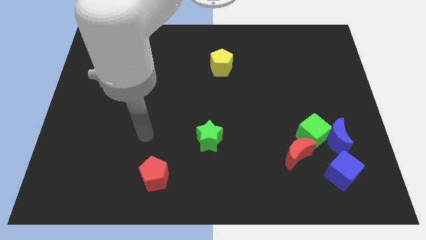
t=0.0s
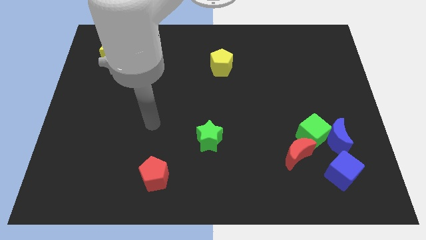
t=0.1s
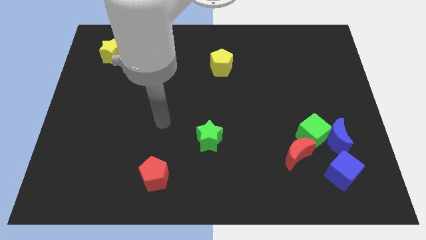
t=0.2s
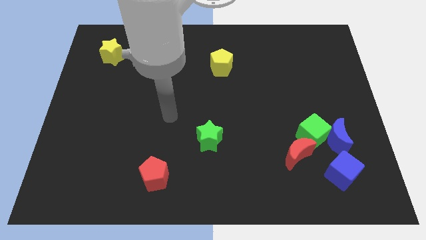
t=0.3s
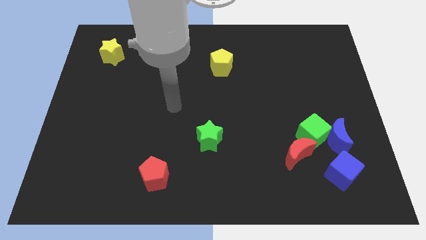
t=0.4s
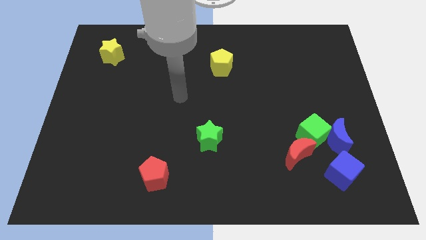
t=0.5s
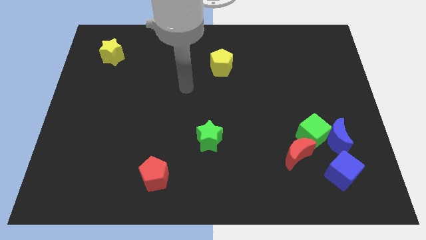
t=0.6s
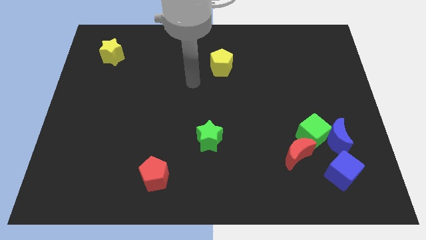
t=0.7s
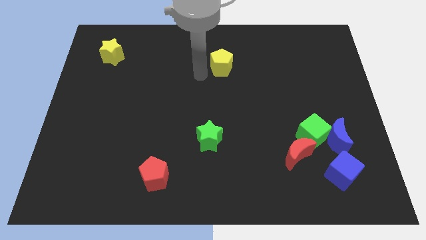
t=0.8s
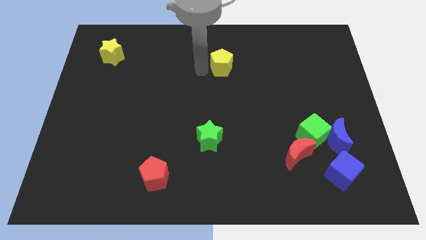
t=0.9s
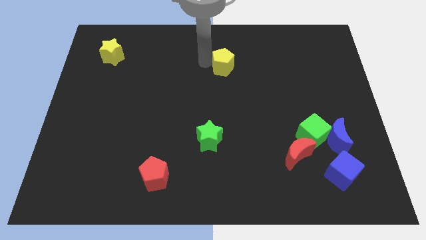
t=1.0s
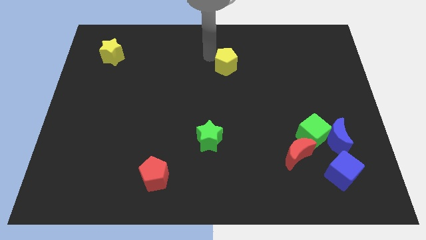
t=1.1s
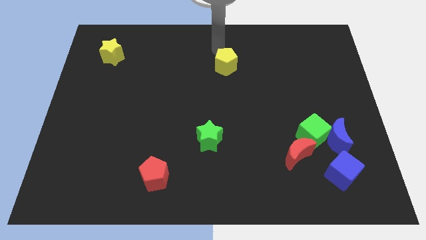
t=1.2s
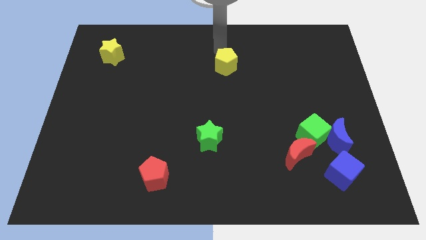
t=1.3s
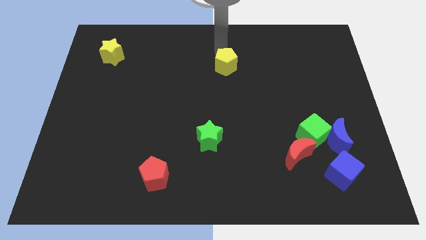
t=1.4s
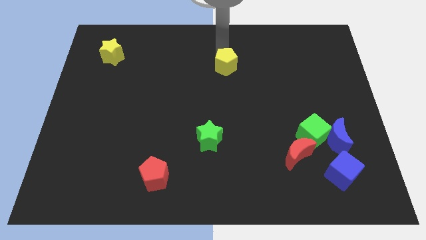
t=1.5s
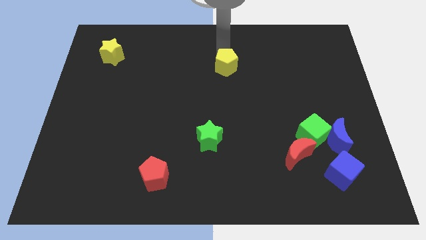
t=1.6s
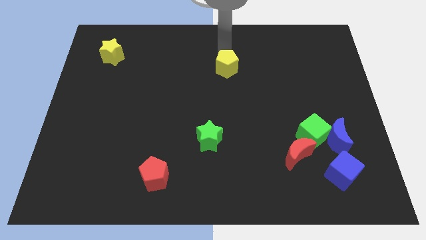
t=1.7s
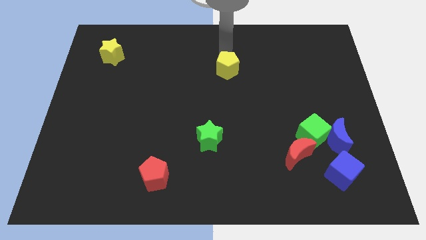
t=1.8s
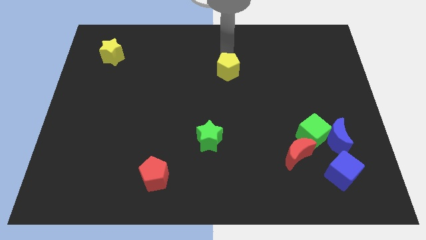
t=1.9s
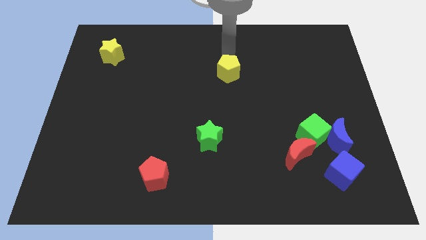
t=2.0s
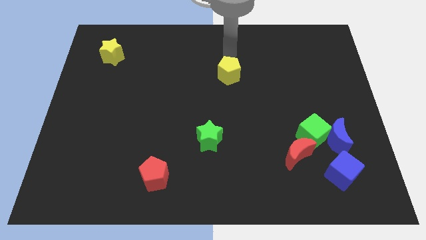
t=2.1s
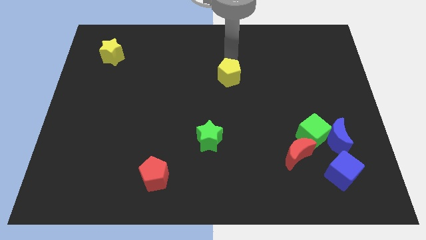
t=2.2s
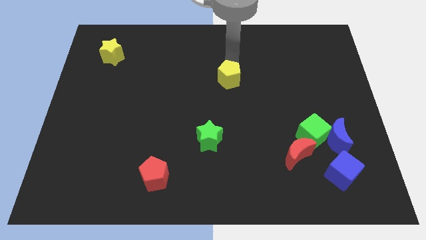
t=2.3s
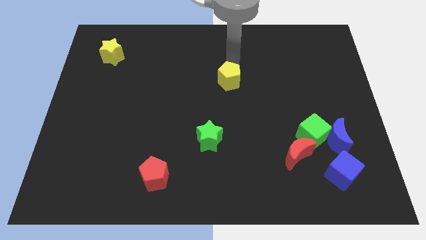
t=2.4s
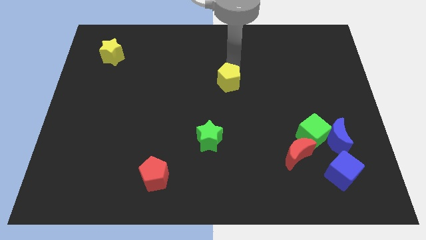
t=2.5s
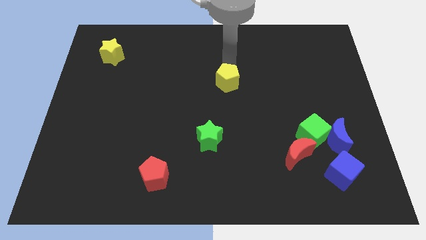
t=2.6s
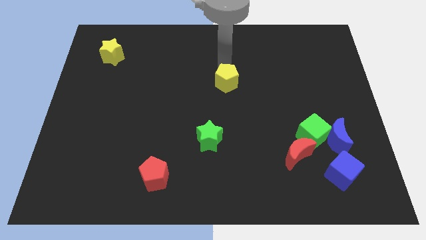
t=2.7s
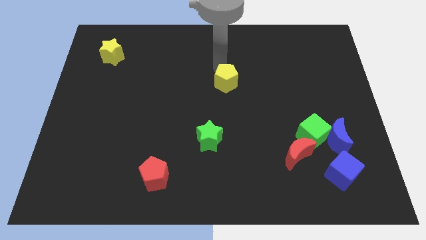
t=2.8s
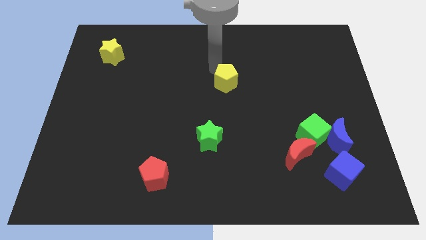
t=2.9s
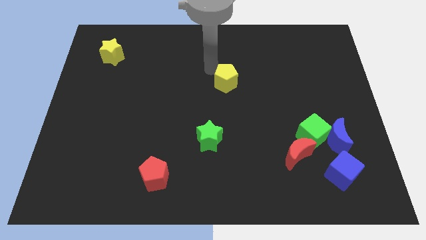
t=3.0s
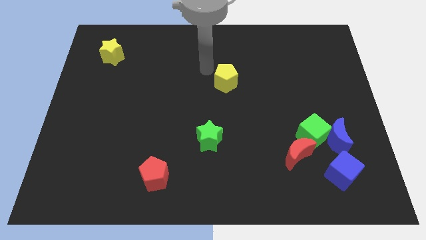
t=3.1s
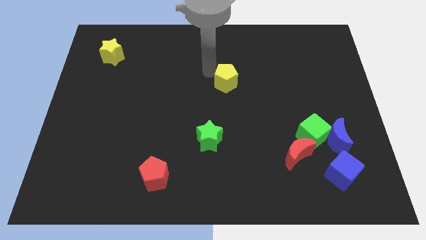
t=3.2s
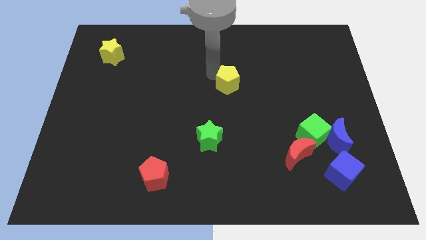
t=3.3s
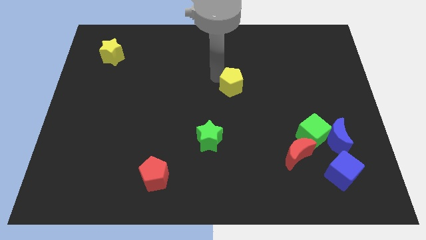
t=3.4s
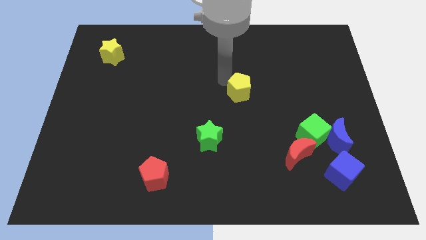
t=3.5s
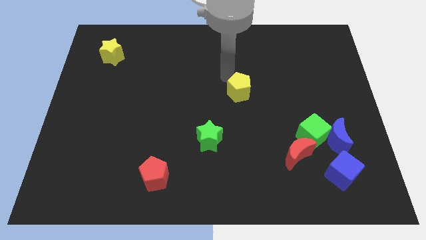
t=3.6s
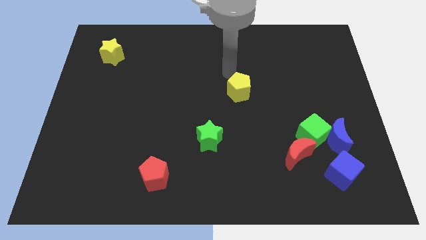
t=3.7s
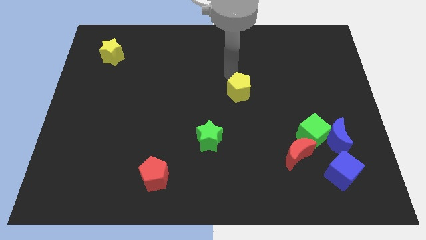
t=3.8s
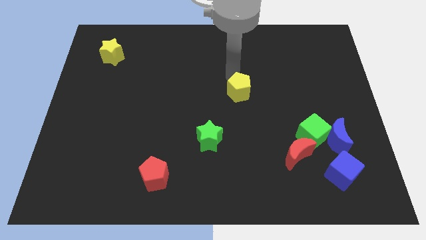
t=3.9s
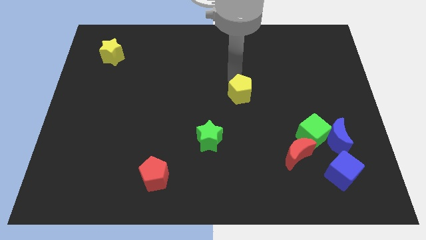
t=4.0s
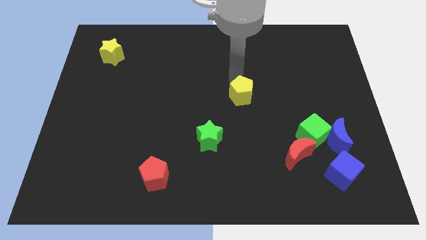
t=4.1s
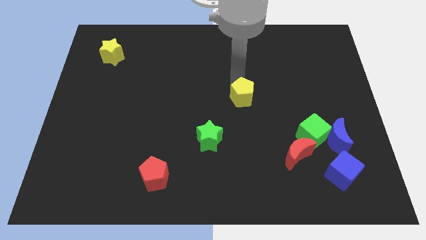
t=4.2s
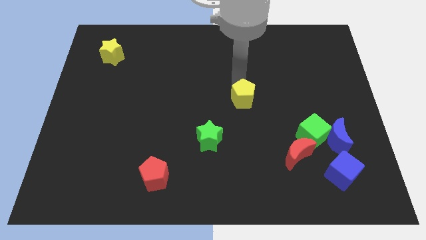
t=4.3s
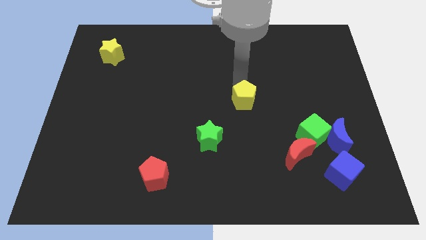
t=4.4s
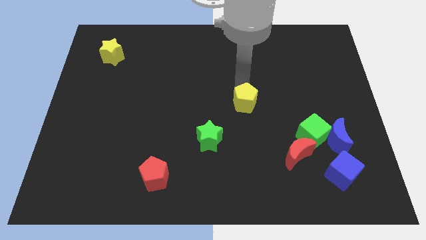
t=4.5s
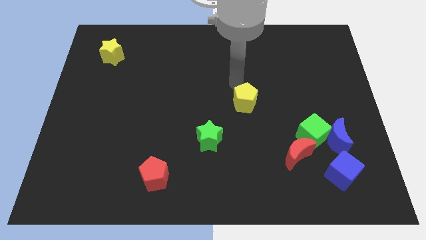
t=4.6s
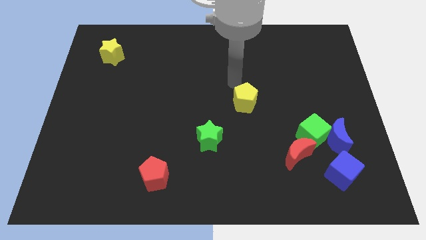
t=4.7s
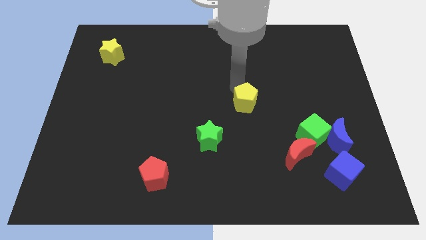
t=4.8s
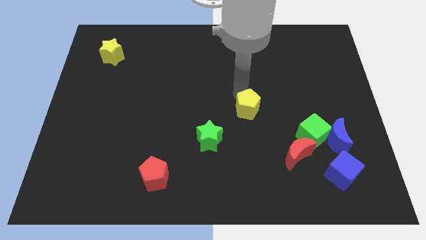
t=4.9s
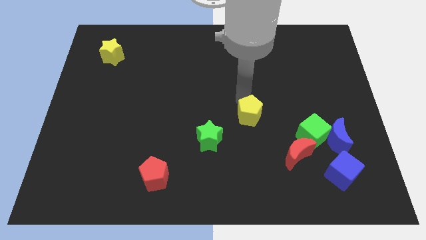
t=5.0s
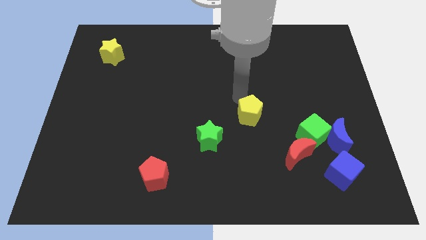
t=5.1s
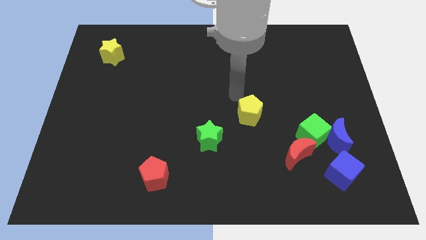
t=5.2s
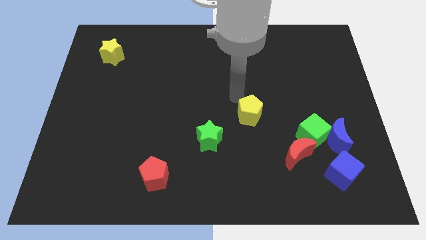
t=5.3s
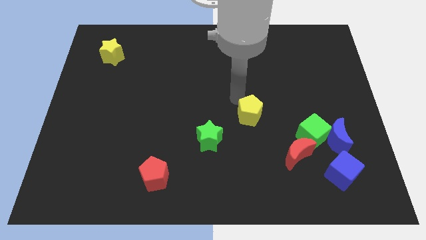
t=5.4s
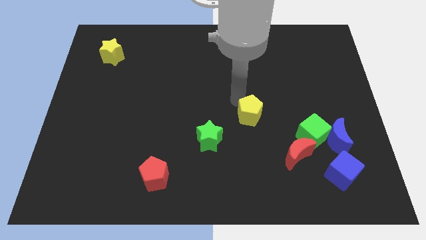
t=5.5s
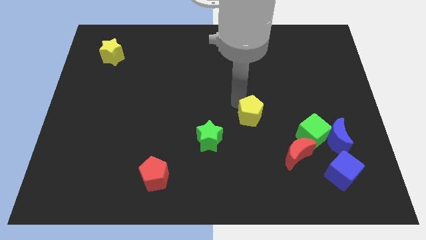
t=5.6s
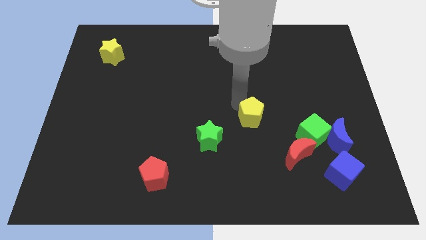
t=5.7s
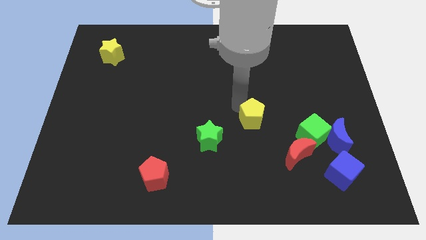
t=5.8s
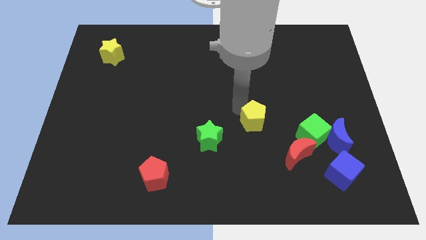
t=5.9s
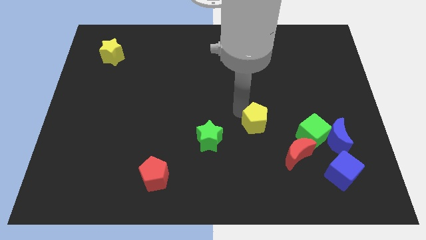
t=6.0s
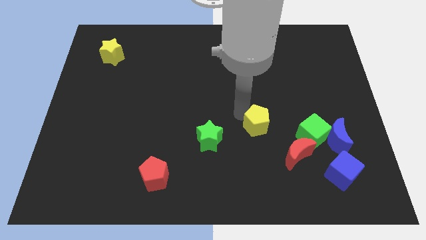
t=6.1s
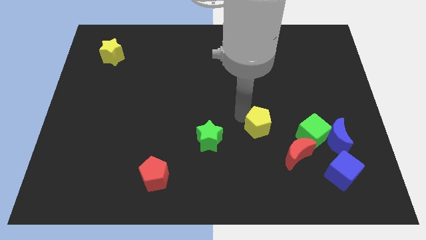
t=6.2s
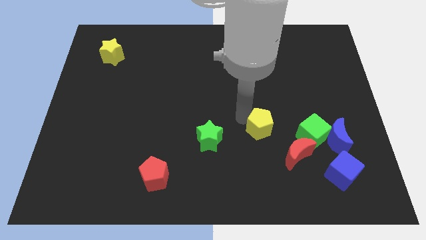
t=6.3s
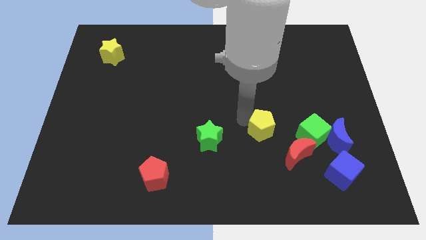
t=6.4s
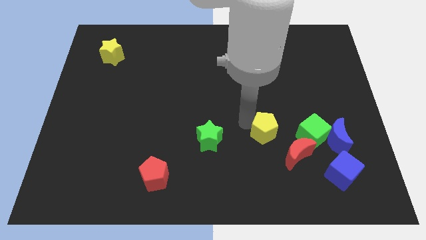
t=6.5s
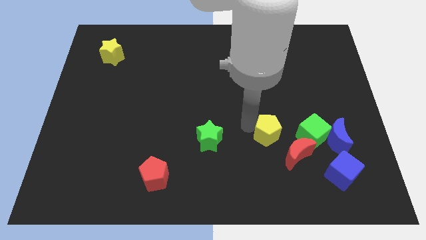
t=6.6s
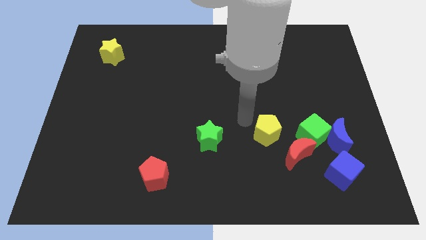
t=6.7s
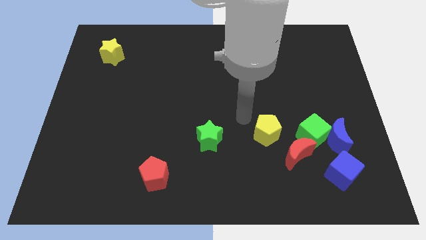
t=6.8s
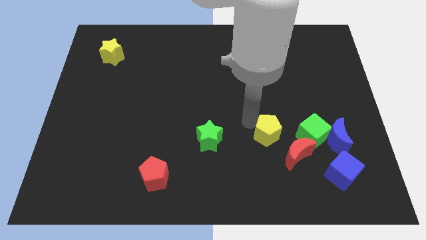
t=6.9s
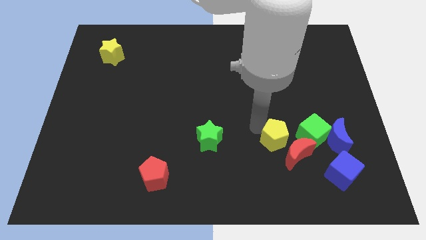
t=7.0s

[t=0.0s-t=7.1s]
push the yellow pentagon next to the red moon

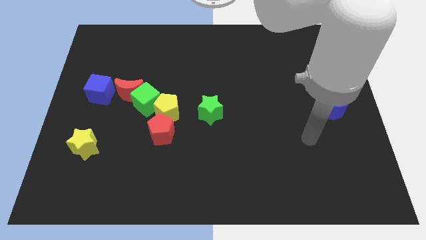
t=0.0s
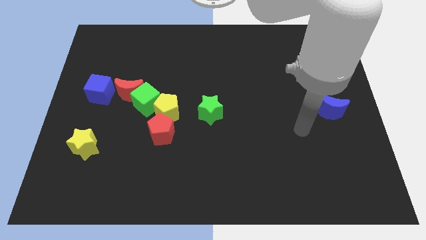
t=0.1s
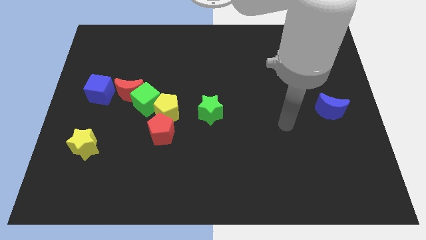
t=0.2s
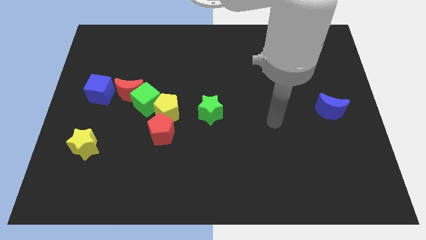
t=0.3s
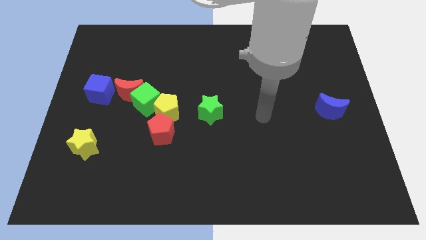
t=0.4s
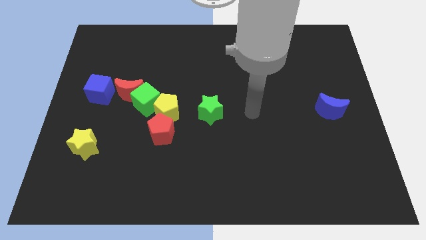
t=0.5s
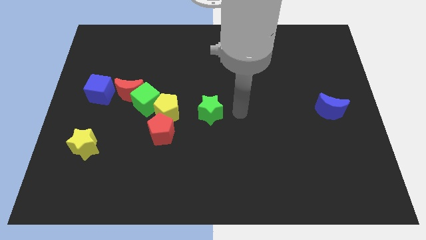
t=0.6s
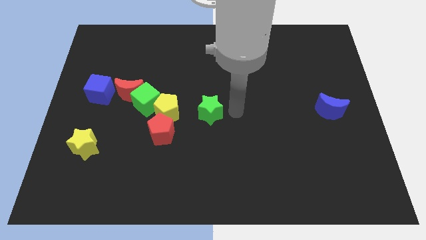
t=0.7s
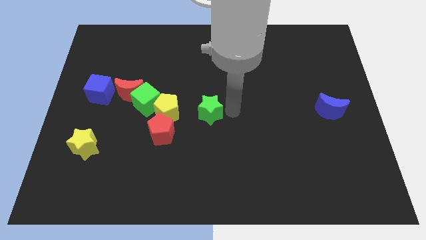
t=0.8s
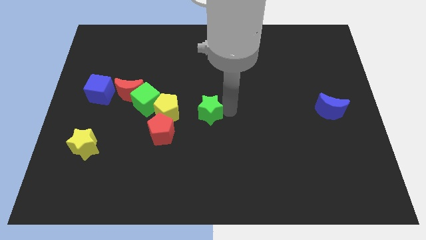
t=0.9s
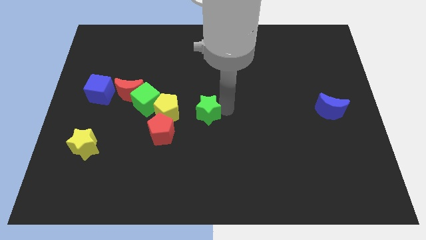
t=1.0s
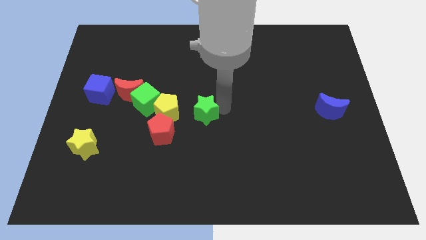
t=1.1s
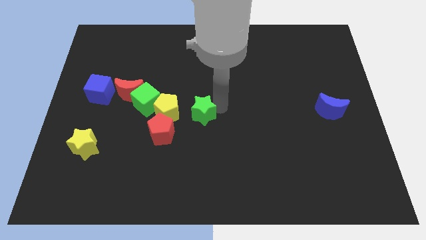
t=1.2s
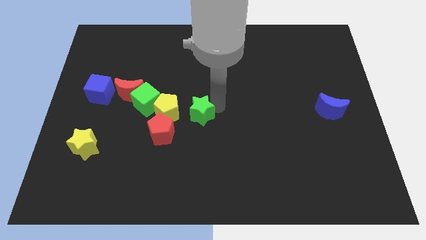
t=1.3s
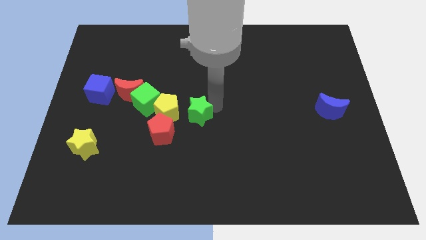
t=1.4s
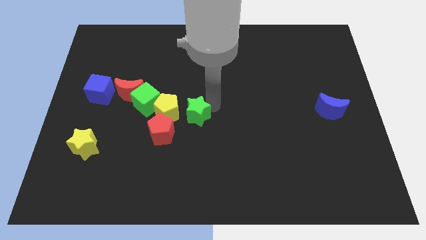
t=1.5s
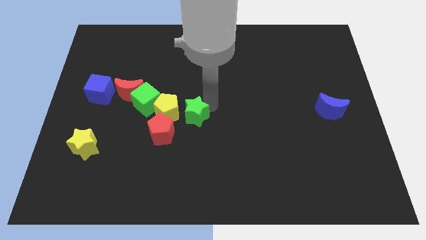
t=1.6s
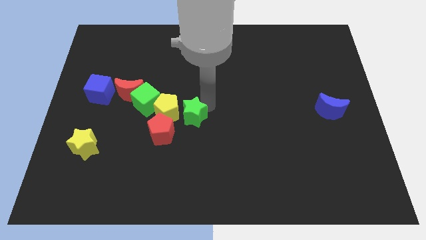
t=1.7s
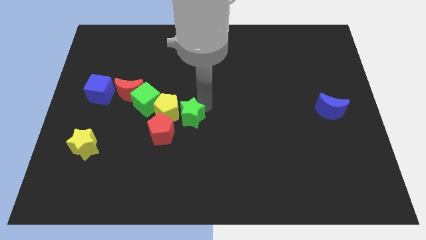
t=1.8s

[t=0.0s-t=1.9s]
push the green star to the yellow pentagon
